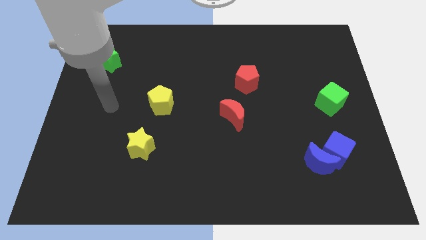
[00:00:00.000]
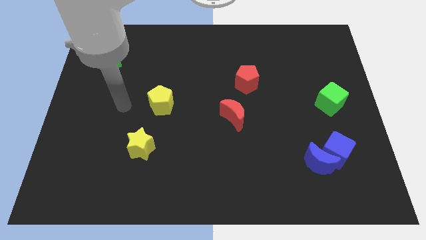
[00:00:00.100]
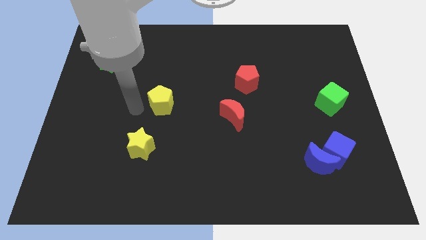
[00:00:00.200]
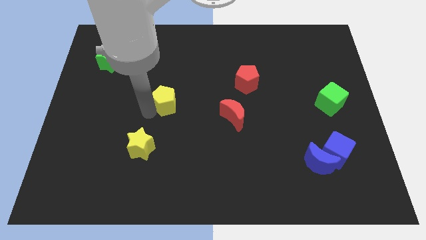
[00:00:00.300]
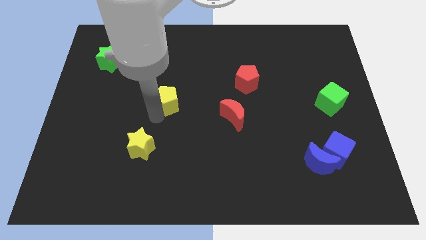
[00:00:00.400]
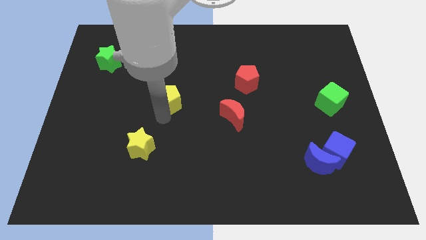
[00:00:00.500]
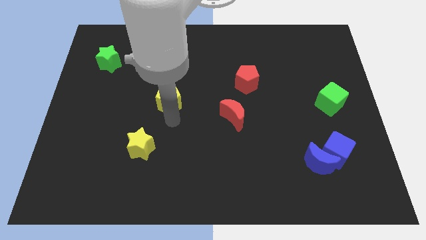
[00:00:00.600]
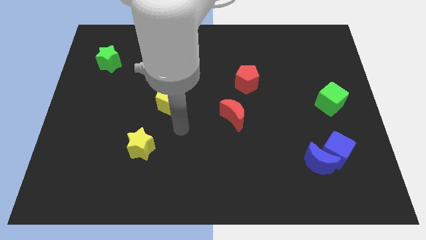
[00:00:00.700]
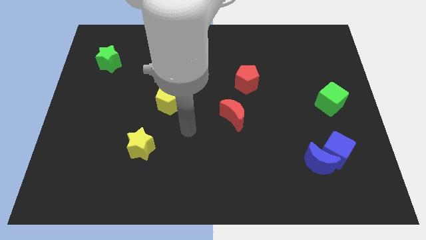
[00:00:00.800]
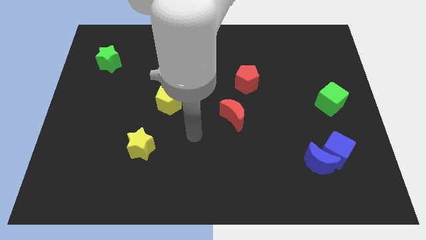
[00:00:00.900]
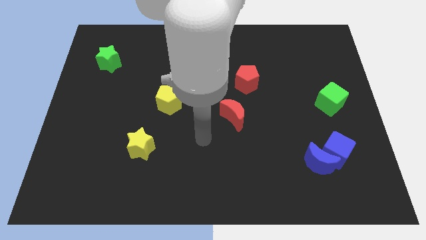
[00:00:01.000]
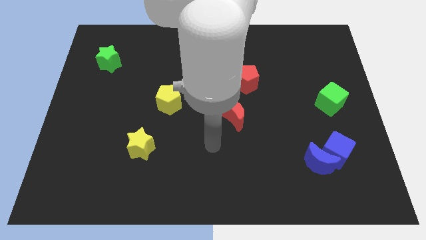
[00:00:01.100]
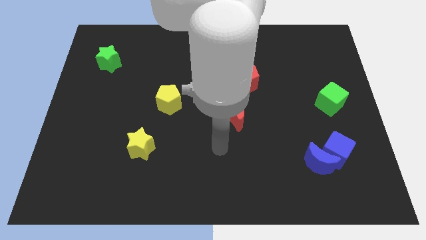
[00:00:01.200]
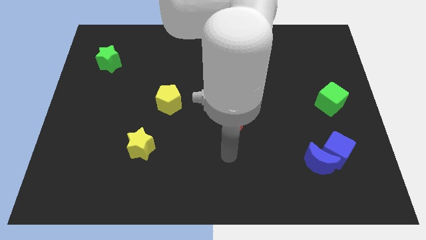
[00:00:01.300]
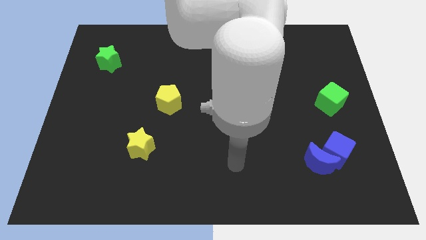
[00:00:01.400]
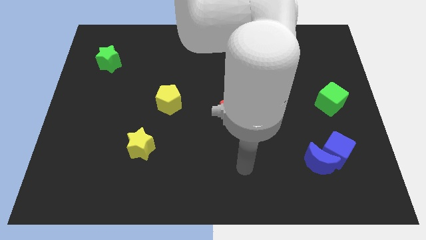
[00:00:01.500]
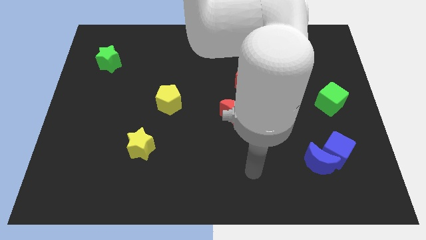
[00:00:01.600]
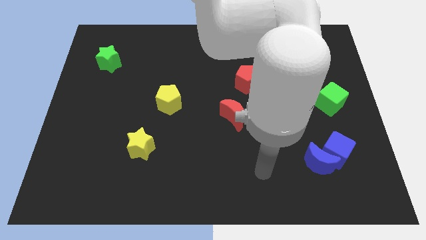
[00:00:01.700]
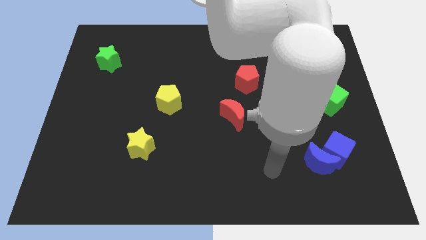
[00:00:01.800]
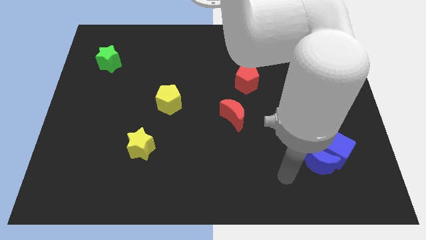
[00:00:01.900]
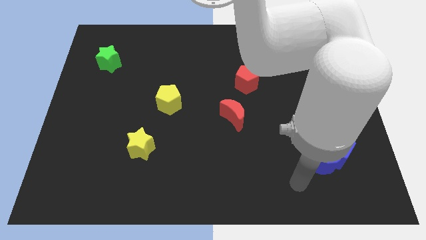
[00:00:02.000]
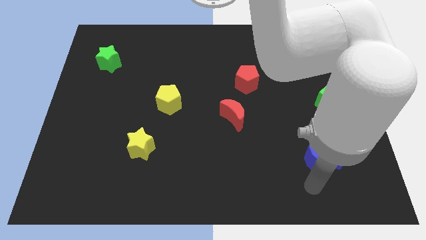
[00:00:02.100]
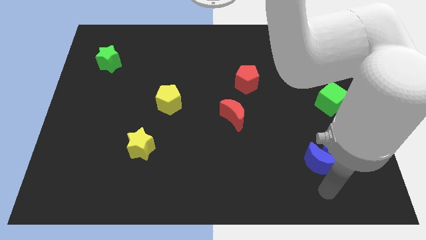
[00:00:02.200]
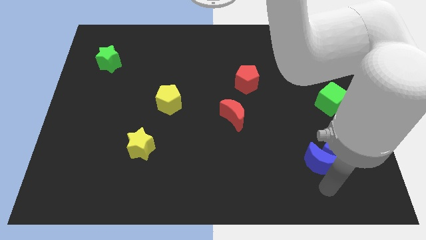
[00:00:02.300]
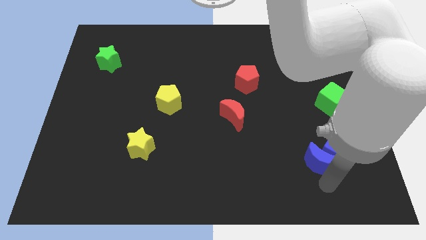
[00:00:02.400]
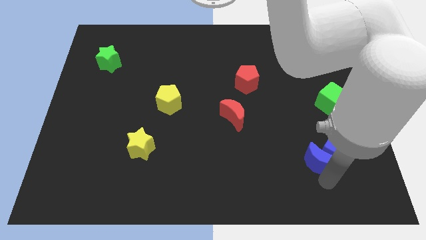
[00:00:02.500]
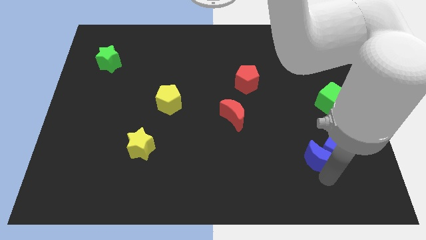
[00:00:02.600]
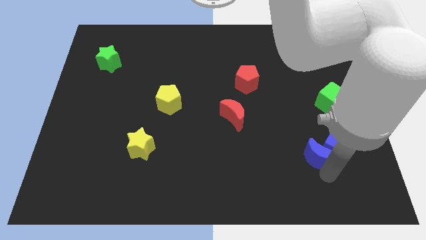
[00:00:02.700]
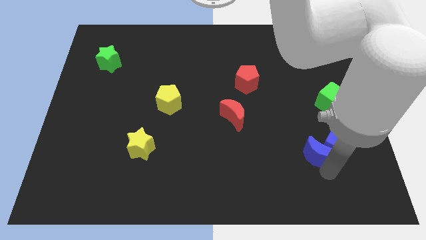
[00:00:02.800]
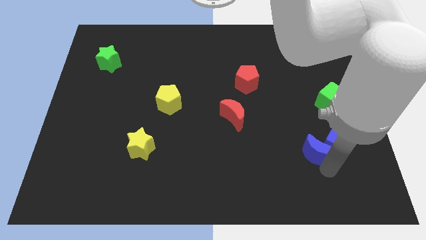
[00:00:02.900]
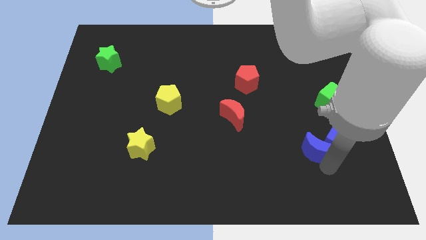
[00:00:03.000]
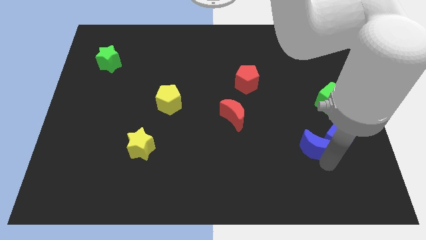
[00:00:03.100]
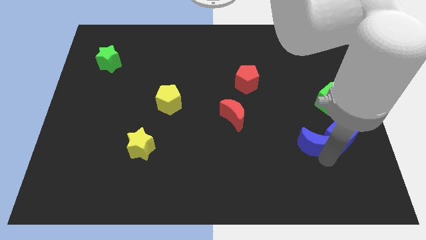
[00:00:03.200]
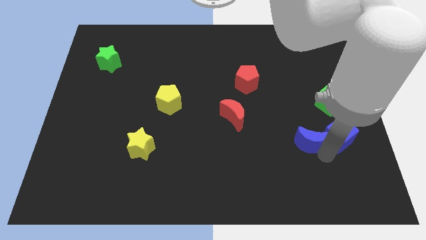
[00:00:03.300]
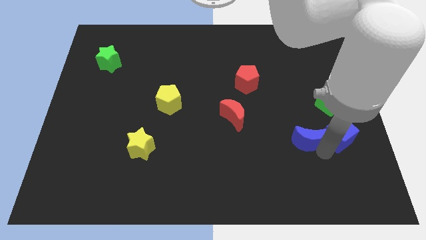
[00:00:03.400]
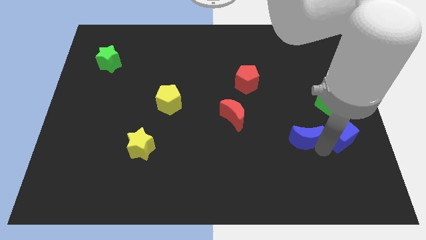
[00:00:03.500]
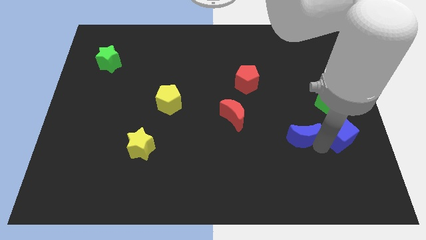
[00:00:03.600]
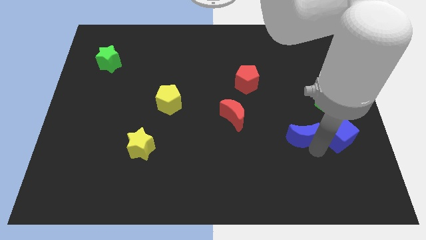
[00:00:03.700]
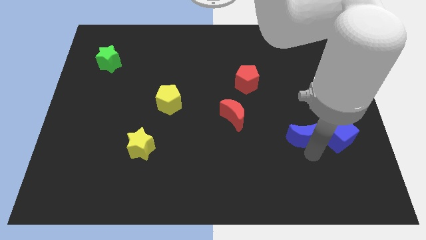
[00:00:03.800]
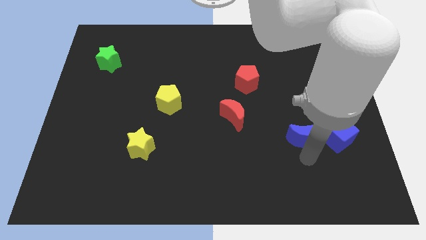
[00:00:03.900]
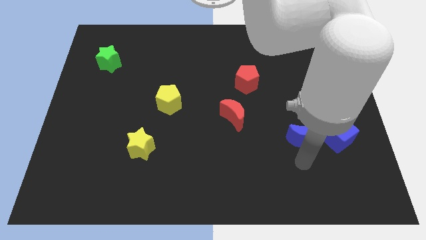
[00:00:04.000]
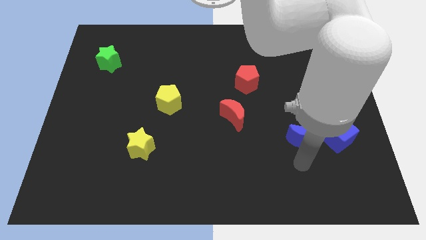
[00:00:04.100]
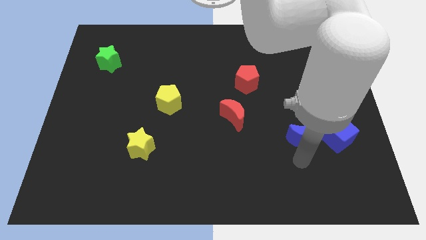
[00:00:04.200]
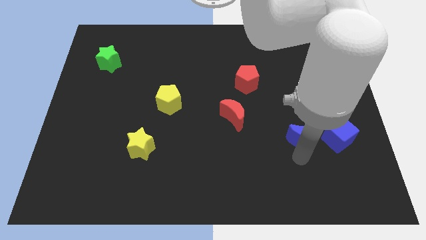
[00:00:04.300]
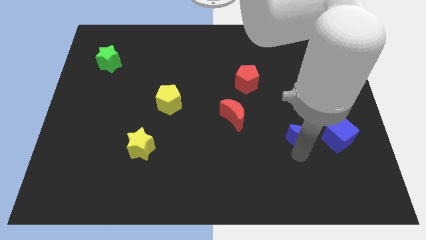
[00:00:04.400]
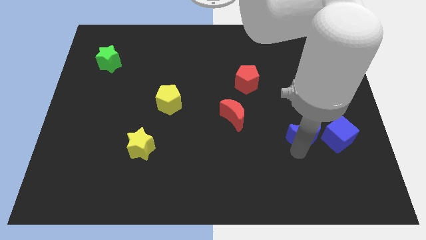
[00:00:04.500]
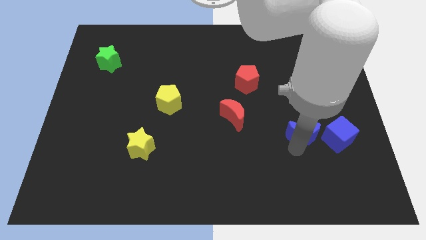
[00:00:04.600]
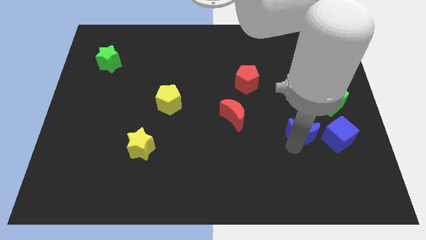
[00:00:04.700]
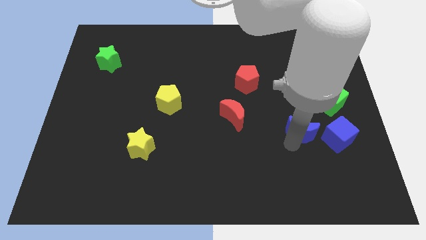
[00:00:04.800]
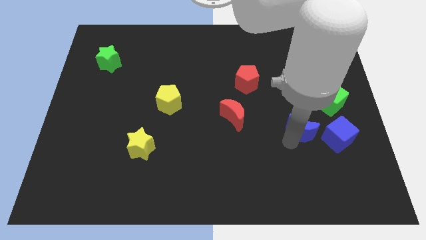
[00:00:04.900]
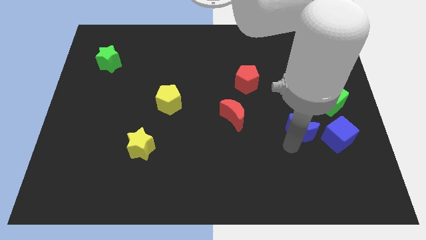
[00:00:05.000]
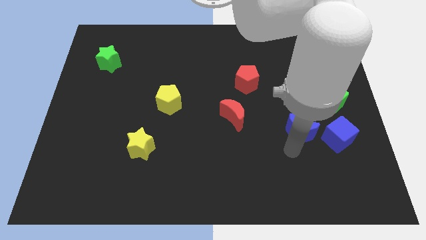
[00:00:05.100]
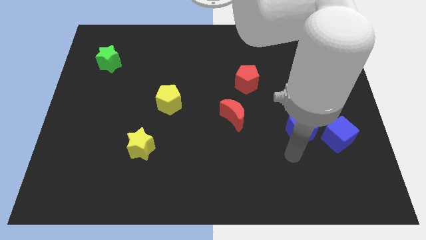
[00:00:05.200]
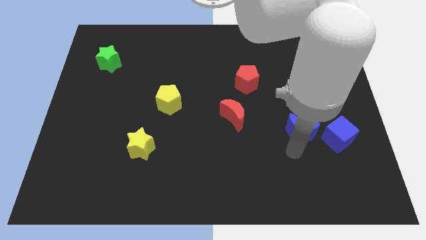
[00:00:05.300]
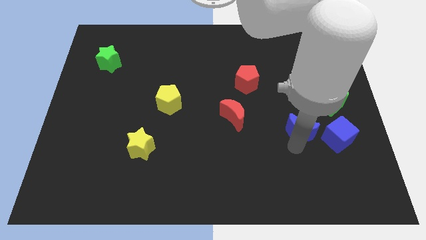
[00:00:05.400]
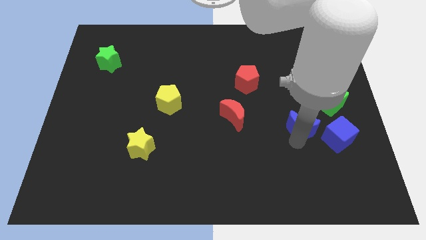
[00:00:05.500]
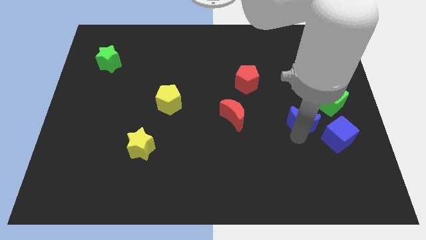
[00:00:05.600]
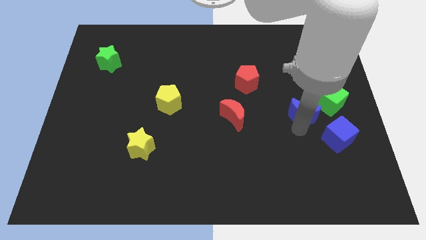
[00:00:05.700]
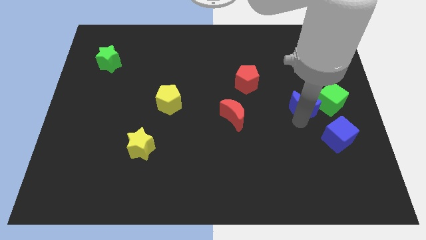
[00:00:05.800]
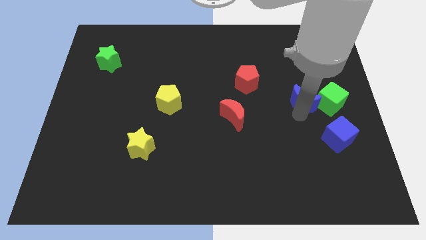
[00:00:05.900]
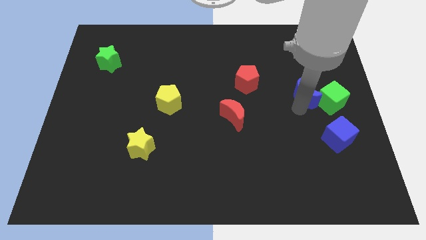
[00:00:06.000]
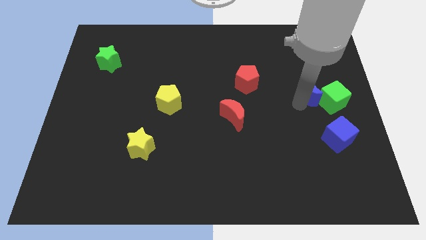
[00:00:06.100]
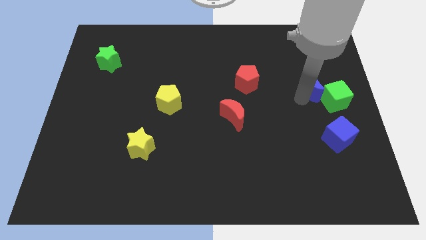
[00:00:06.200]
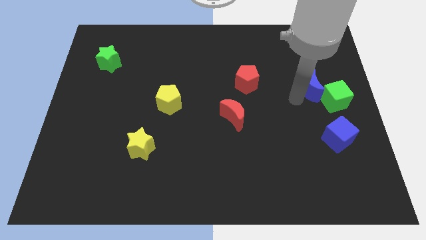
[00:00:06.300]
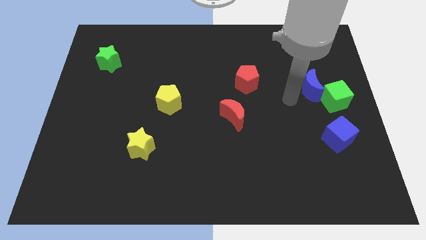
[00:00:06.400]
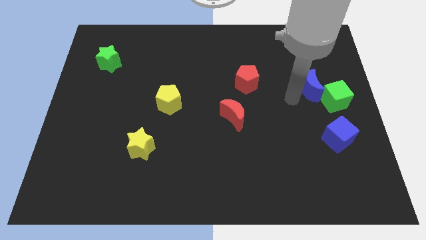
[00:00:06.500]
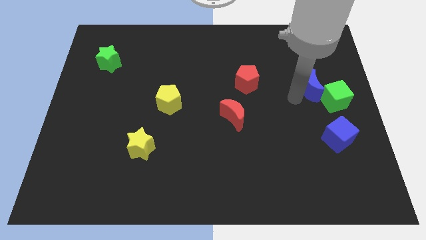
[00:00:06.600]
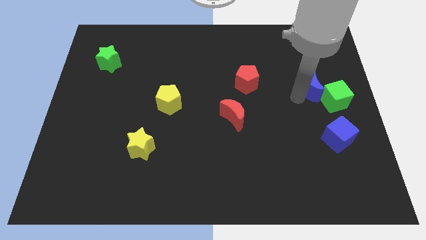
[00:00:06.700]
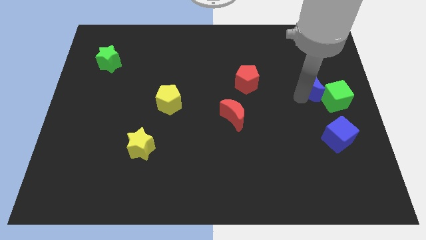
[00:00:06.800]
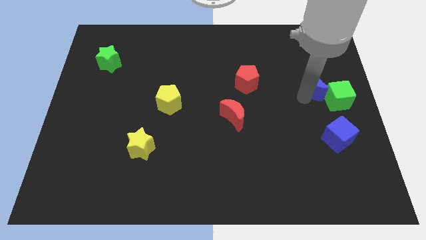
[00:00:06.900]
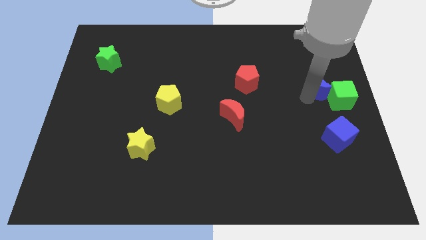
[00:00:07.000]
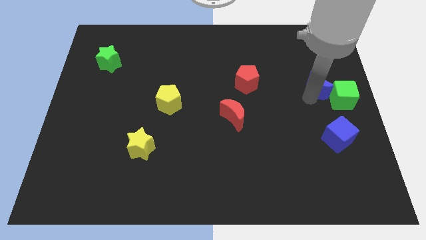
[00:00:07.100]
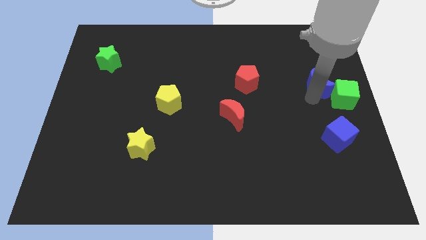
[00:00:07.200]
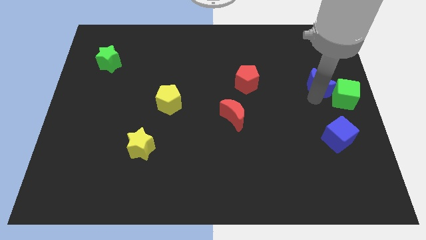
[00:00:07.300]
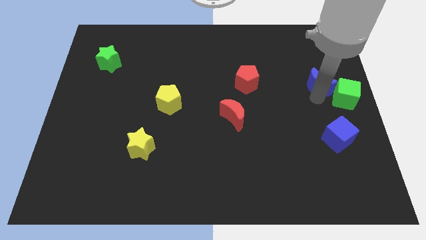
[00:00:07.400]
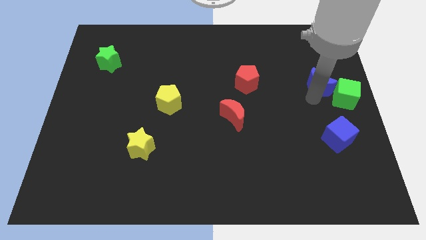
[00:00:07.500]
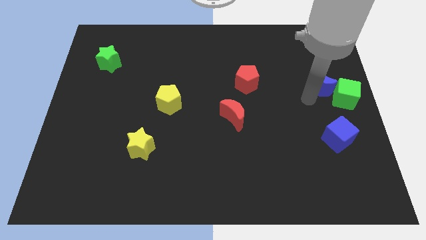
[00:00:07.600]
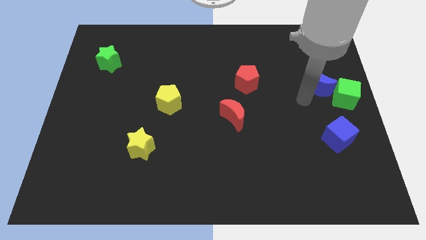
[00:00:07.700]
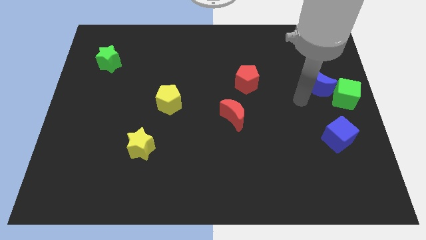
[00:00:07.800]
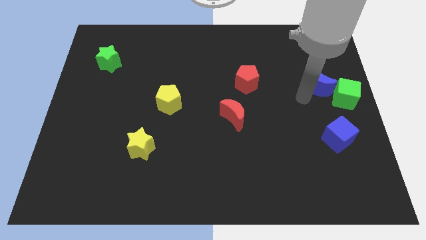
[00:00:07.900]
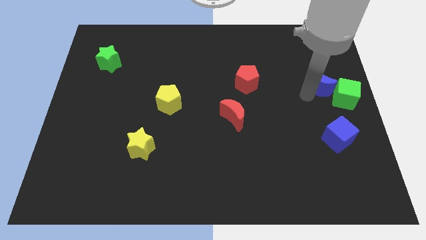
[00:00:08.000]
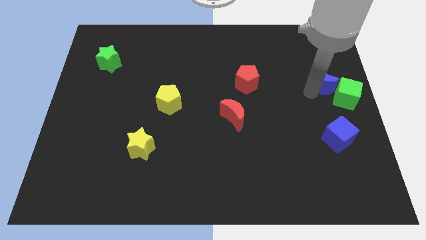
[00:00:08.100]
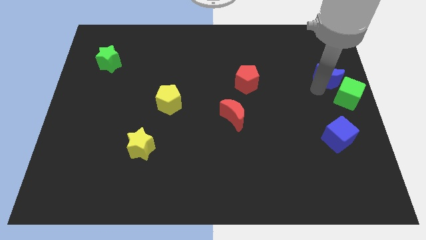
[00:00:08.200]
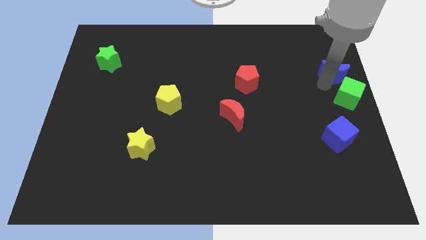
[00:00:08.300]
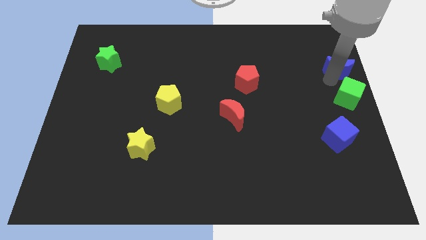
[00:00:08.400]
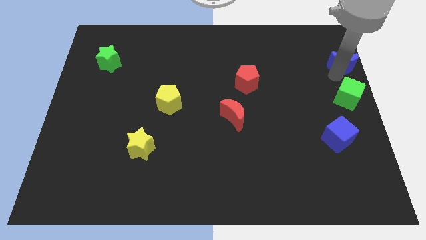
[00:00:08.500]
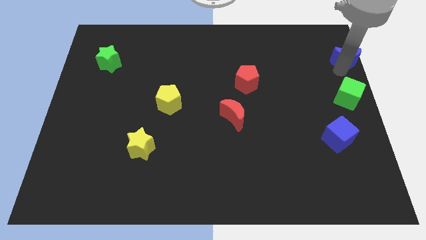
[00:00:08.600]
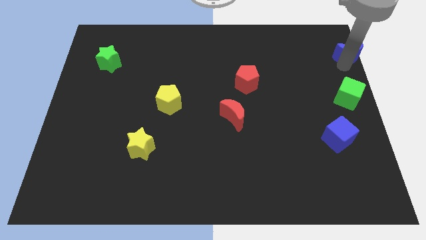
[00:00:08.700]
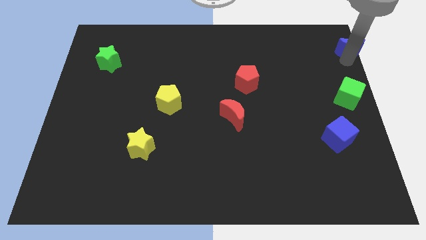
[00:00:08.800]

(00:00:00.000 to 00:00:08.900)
put the blue moon to the top right of the board
